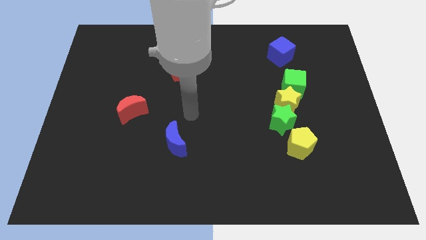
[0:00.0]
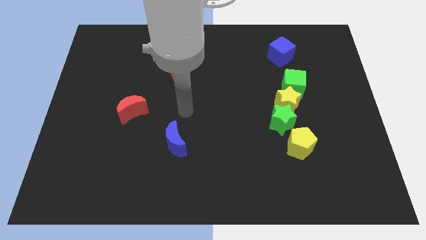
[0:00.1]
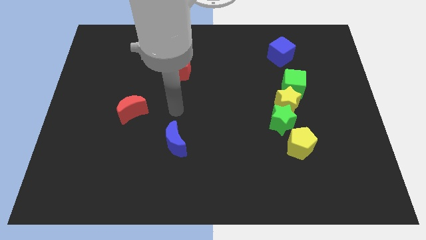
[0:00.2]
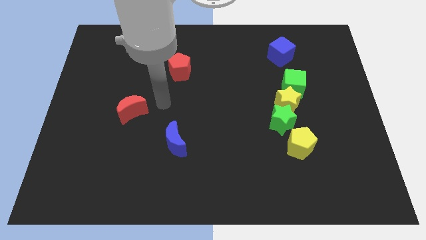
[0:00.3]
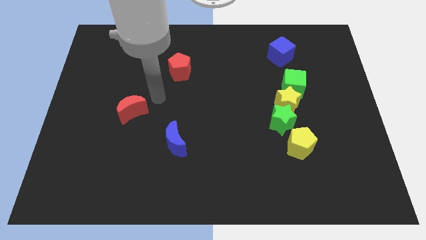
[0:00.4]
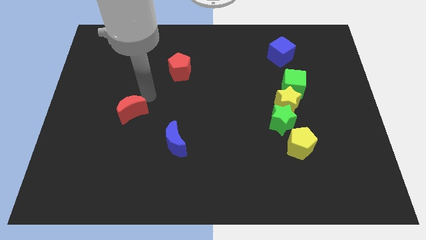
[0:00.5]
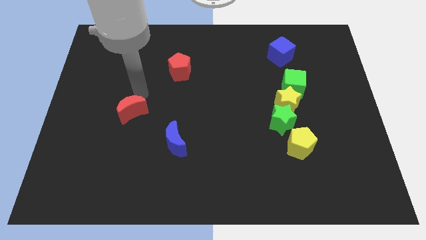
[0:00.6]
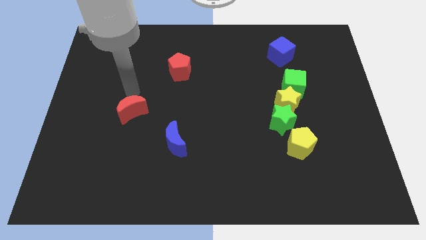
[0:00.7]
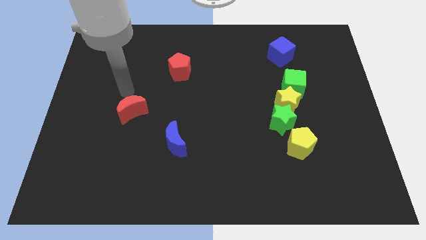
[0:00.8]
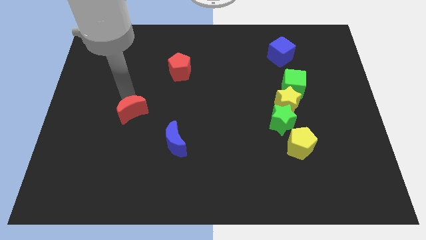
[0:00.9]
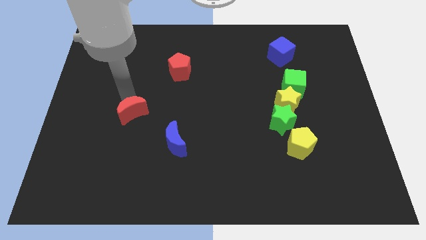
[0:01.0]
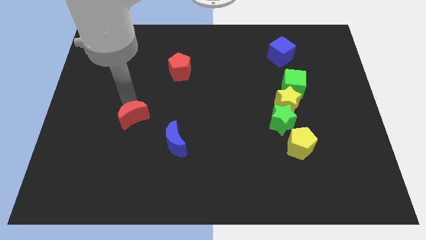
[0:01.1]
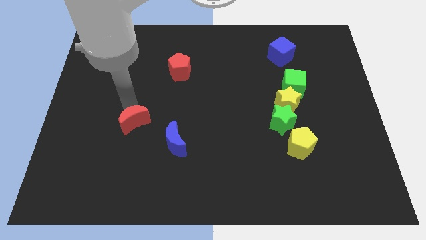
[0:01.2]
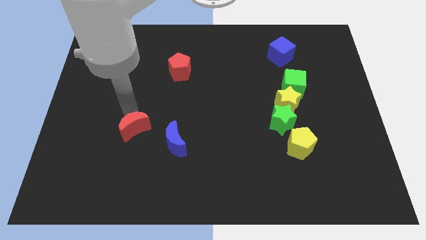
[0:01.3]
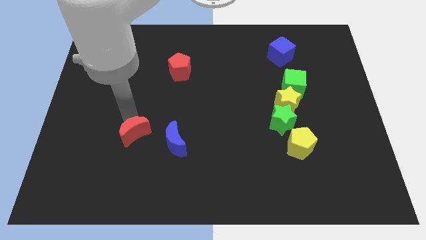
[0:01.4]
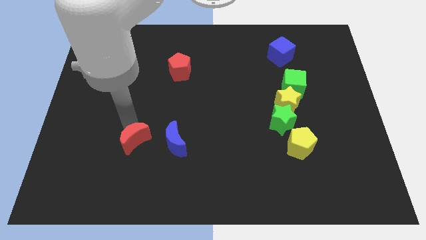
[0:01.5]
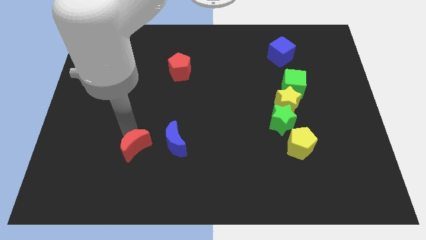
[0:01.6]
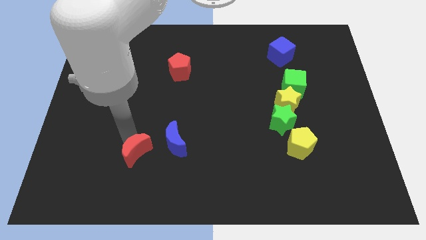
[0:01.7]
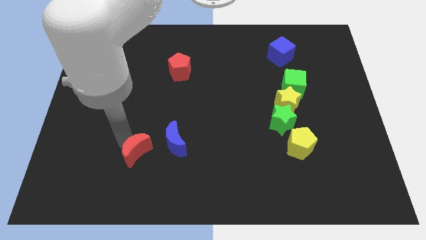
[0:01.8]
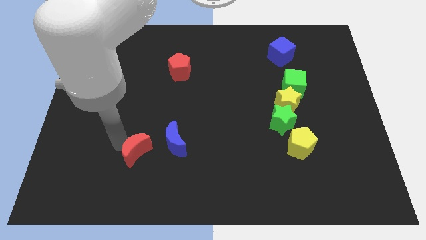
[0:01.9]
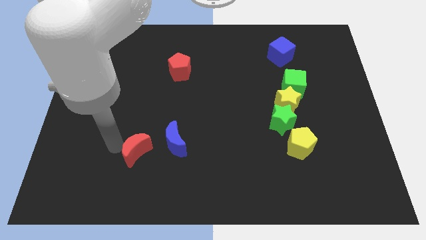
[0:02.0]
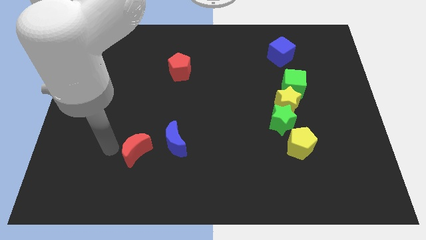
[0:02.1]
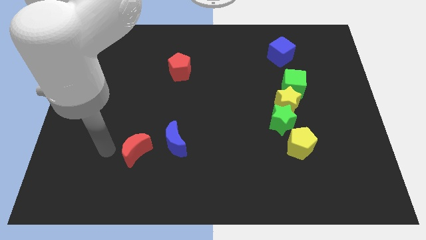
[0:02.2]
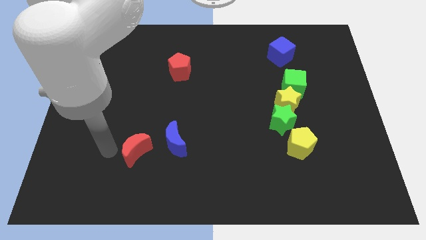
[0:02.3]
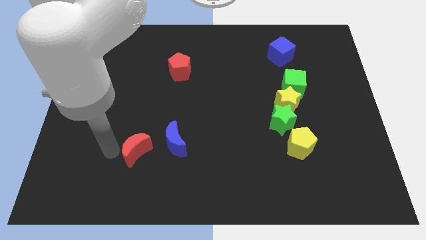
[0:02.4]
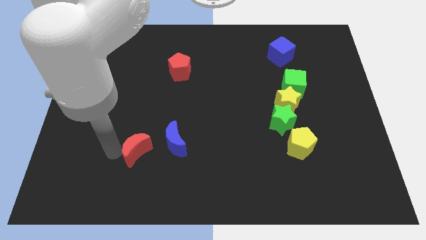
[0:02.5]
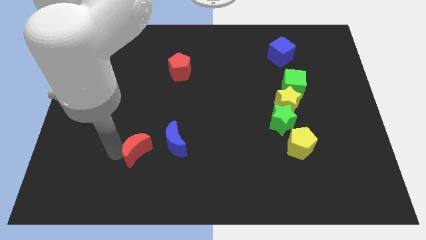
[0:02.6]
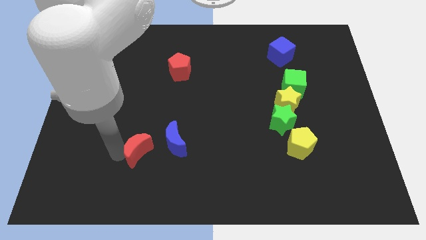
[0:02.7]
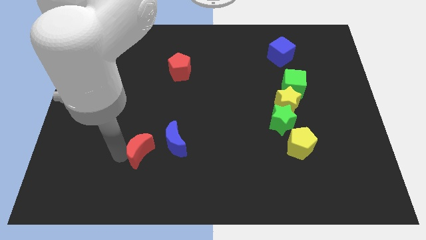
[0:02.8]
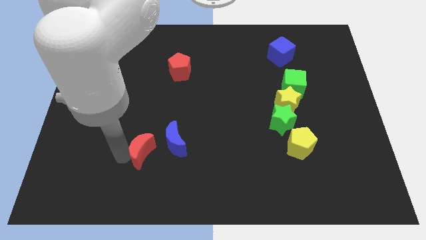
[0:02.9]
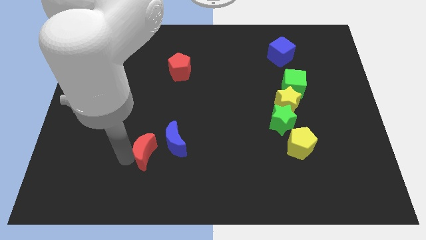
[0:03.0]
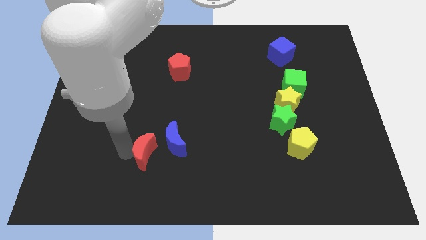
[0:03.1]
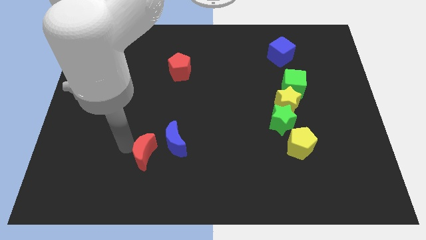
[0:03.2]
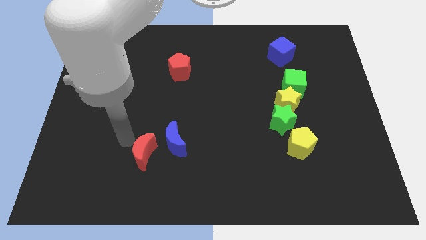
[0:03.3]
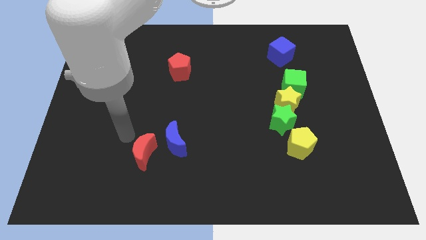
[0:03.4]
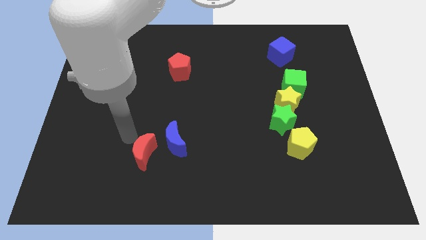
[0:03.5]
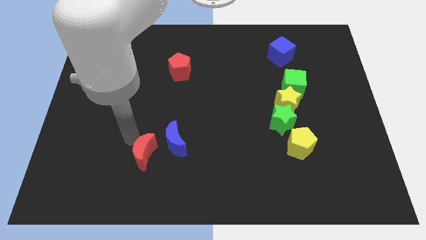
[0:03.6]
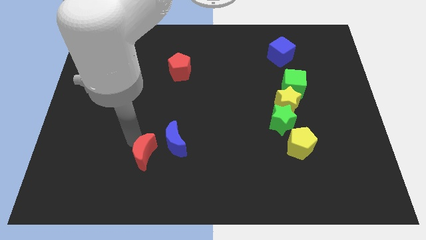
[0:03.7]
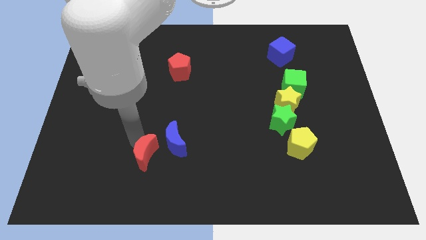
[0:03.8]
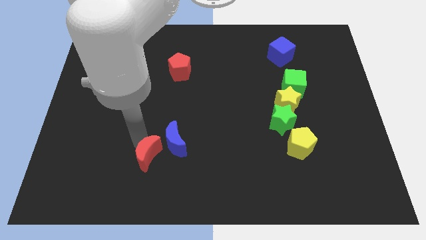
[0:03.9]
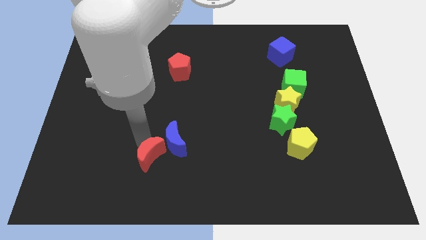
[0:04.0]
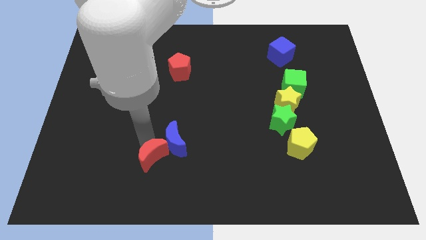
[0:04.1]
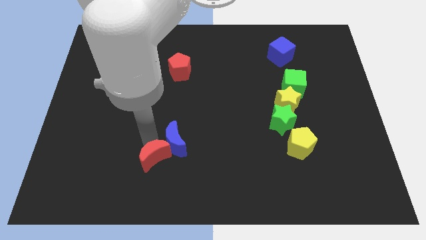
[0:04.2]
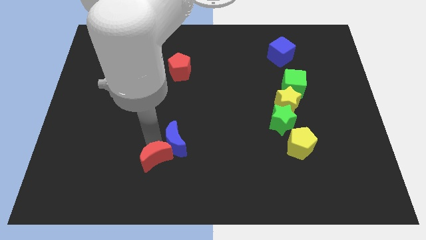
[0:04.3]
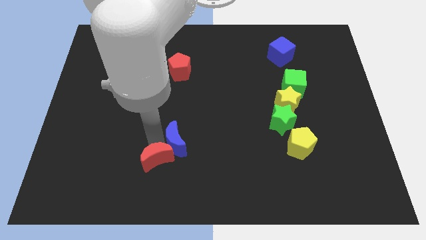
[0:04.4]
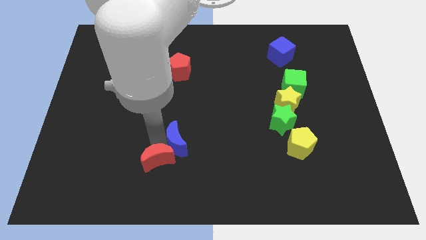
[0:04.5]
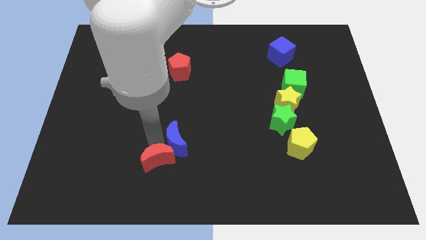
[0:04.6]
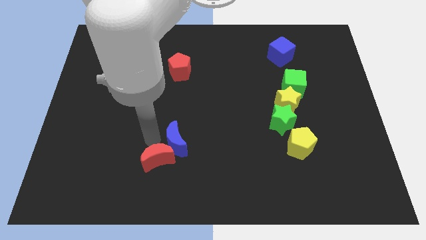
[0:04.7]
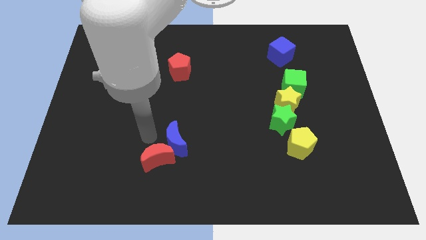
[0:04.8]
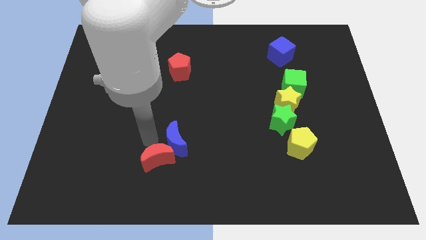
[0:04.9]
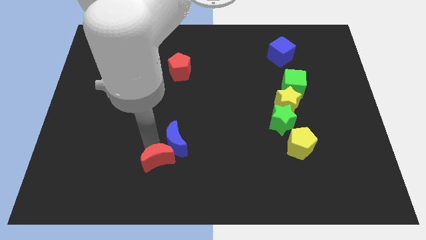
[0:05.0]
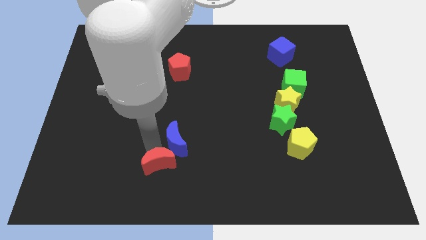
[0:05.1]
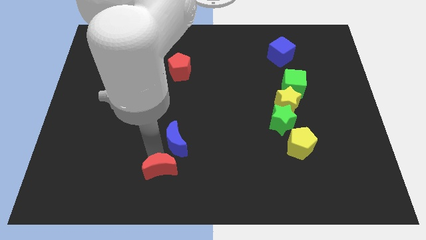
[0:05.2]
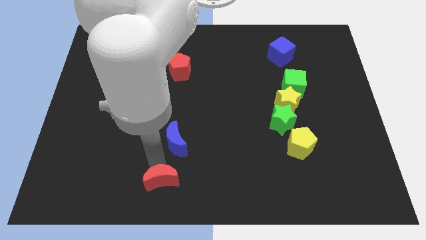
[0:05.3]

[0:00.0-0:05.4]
put the red moon to the bottom side
